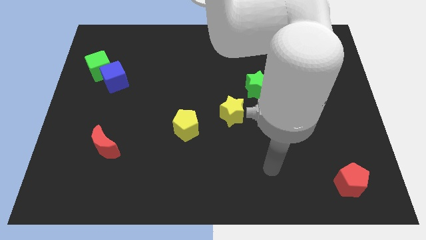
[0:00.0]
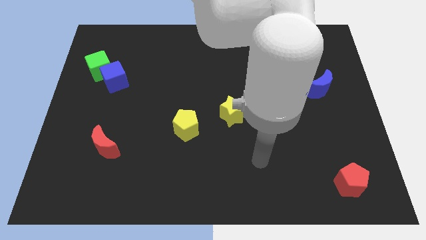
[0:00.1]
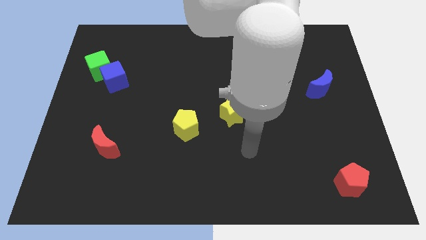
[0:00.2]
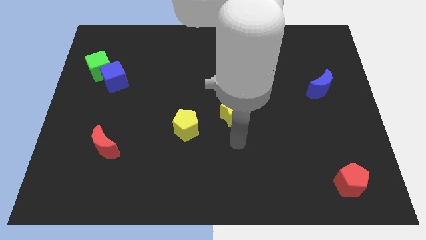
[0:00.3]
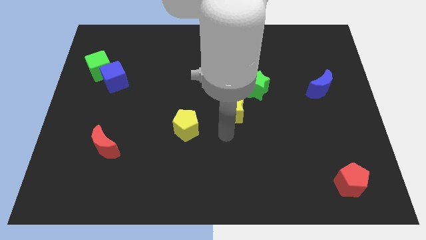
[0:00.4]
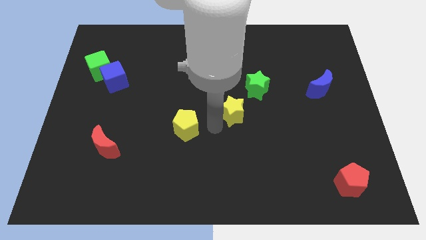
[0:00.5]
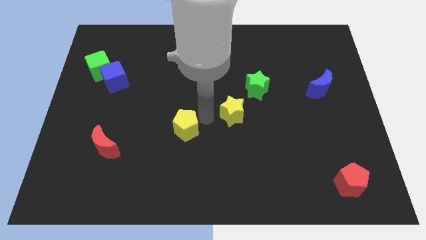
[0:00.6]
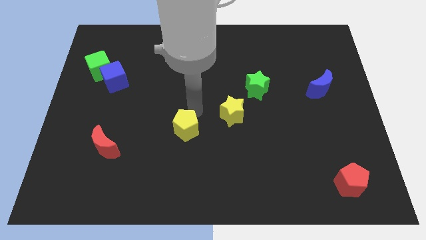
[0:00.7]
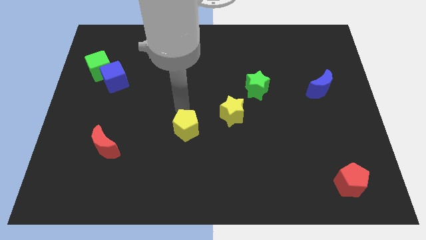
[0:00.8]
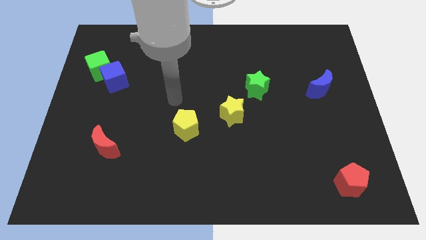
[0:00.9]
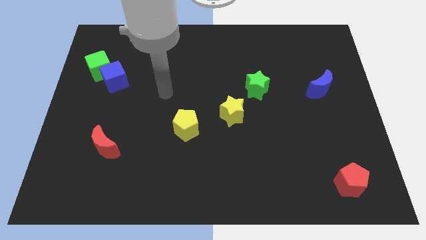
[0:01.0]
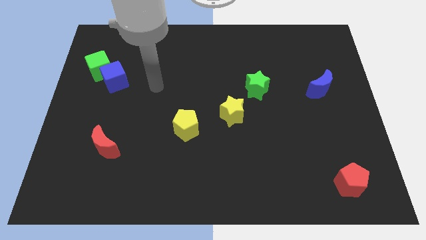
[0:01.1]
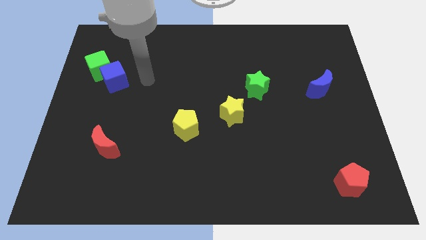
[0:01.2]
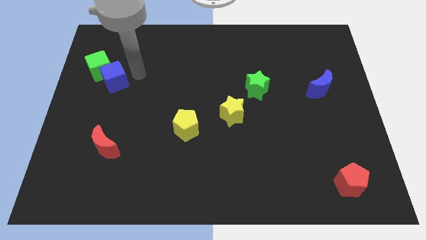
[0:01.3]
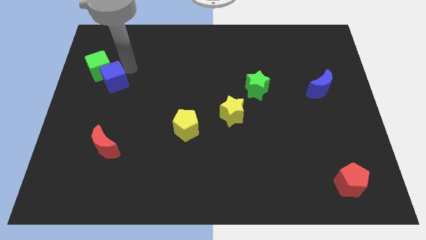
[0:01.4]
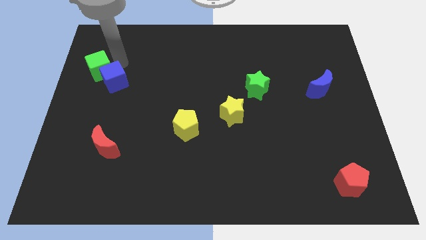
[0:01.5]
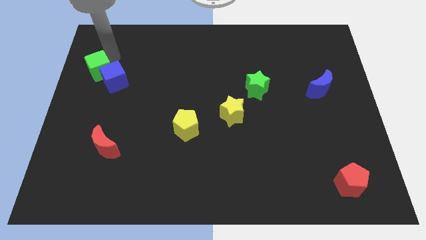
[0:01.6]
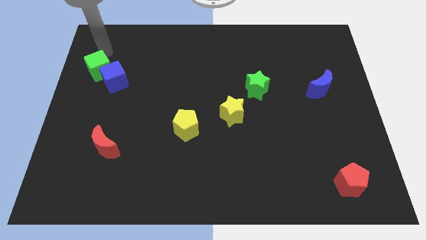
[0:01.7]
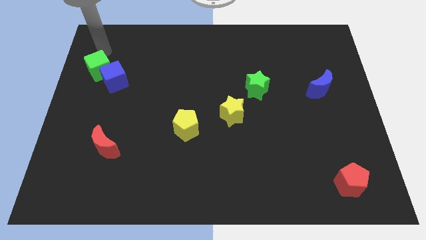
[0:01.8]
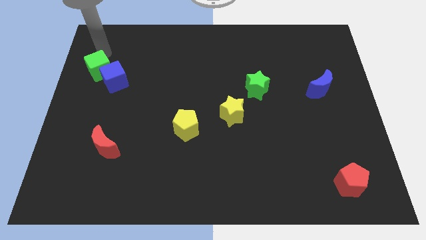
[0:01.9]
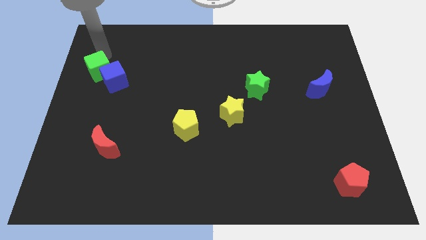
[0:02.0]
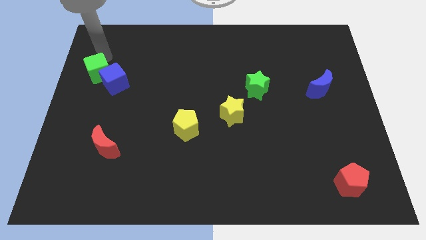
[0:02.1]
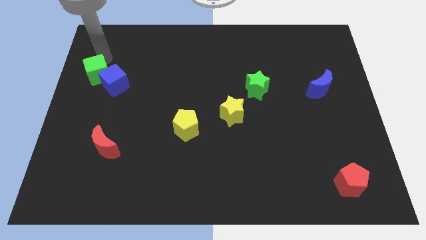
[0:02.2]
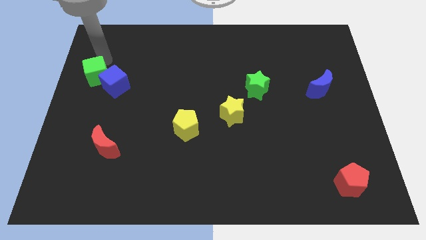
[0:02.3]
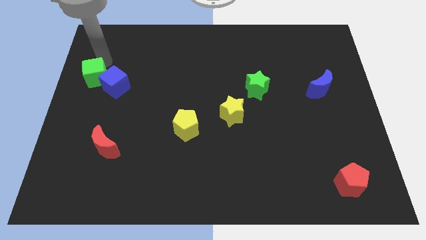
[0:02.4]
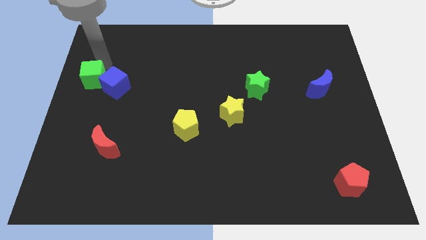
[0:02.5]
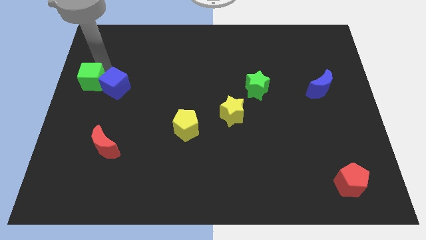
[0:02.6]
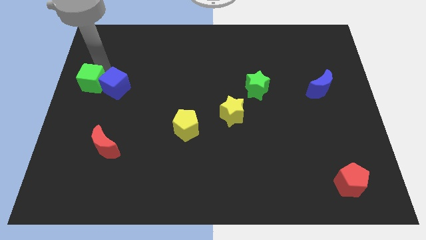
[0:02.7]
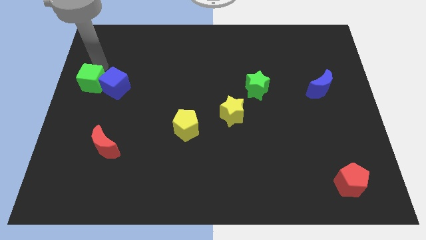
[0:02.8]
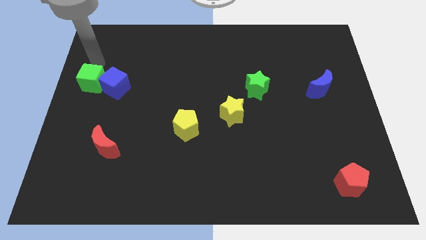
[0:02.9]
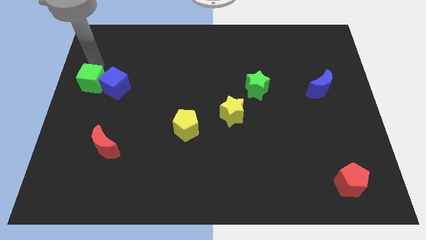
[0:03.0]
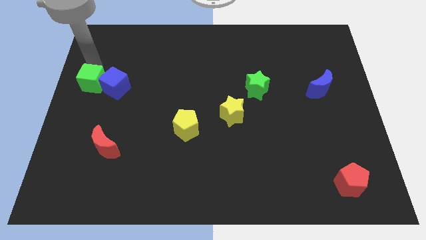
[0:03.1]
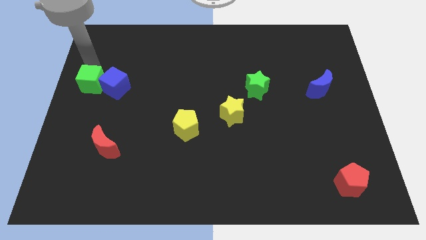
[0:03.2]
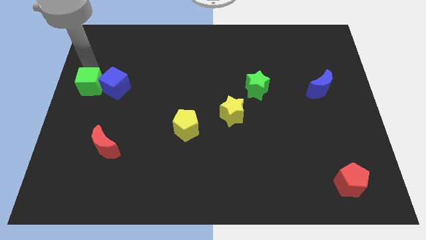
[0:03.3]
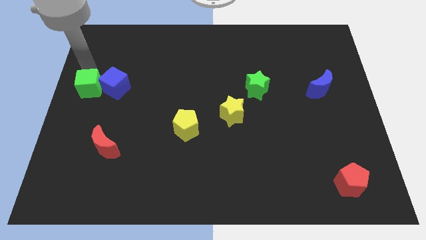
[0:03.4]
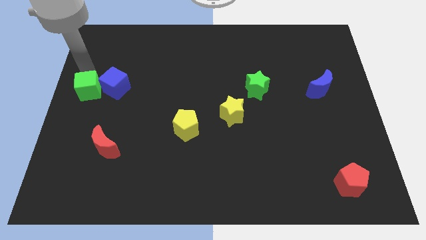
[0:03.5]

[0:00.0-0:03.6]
slide the green cube slightly downwards

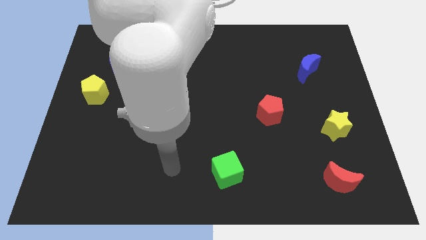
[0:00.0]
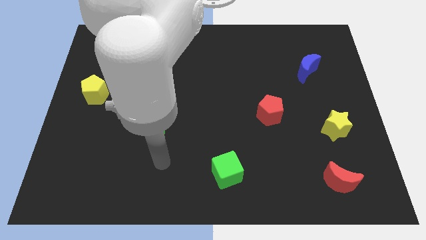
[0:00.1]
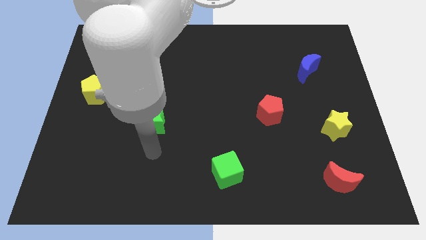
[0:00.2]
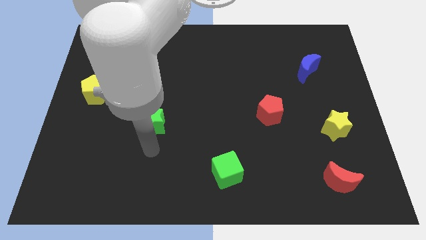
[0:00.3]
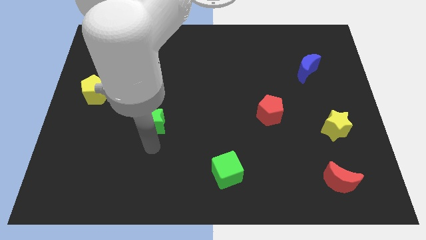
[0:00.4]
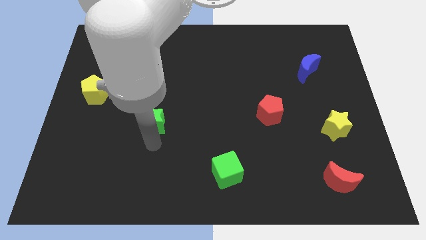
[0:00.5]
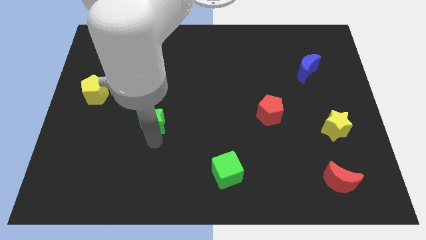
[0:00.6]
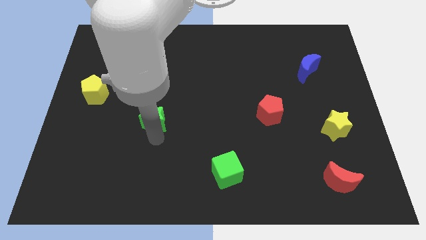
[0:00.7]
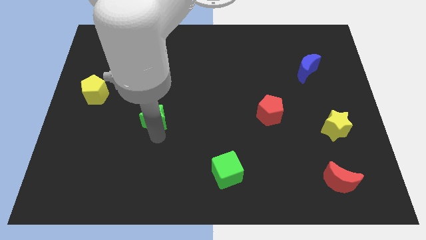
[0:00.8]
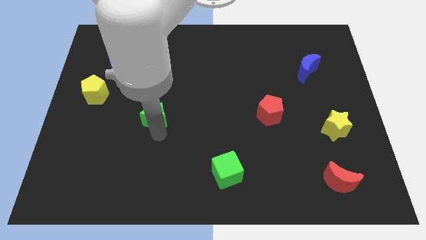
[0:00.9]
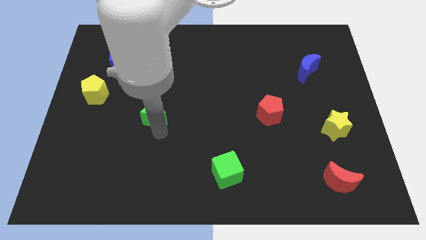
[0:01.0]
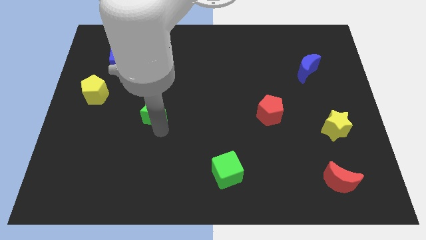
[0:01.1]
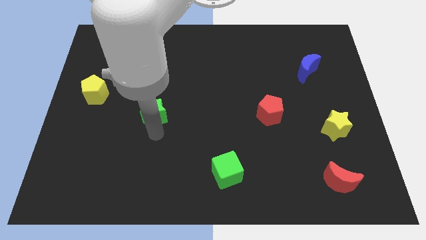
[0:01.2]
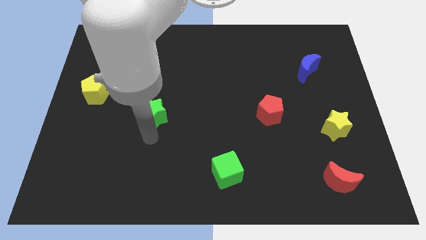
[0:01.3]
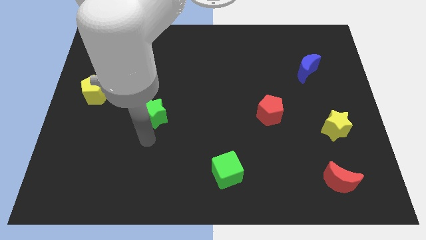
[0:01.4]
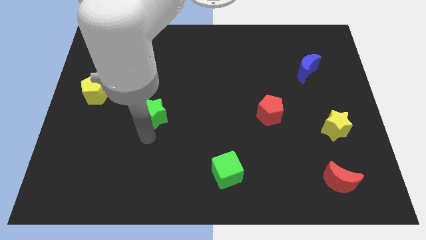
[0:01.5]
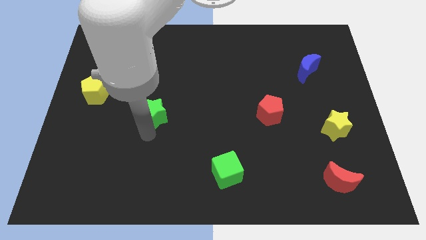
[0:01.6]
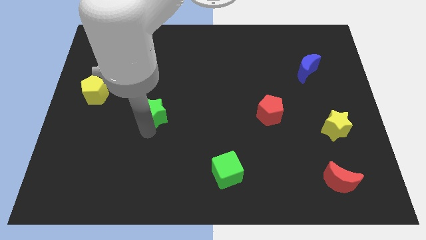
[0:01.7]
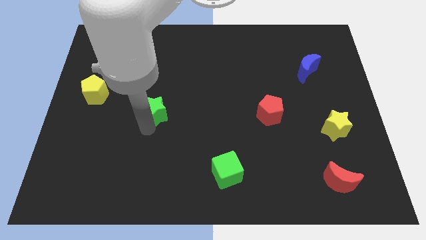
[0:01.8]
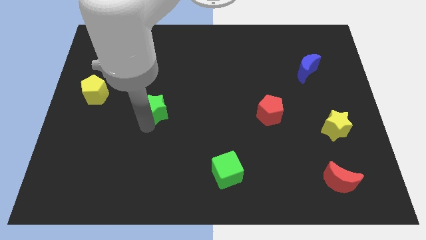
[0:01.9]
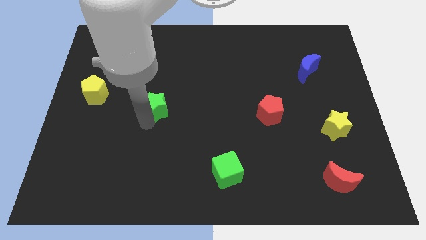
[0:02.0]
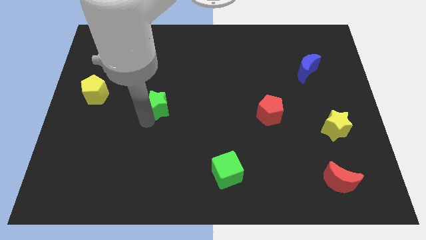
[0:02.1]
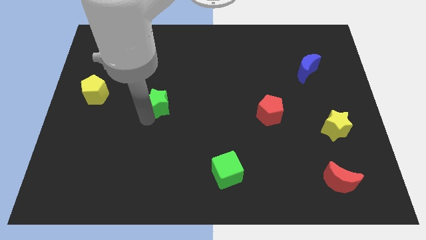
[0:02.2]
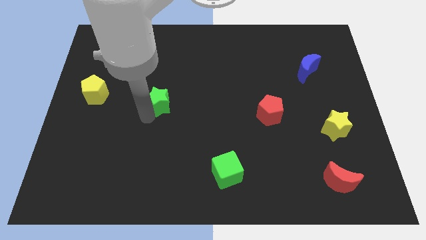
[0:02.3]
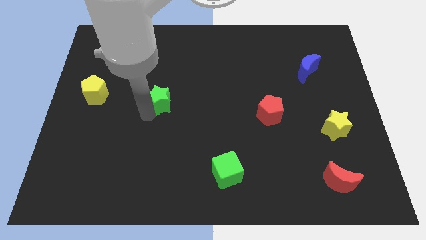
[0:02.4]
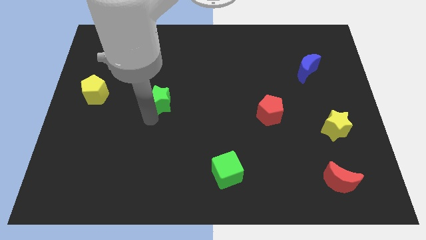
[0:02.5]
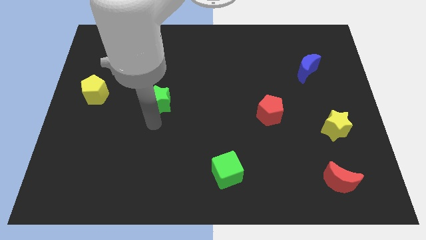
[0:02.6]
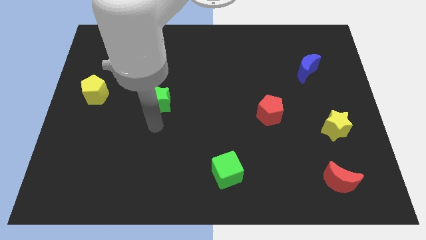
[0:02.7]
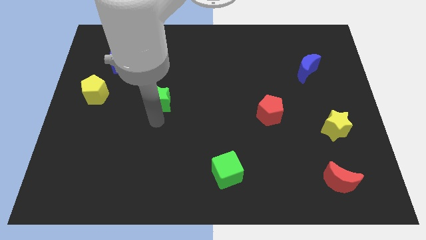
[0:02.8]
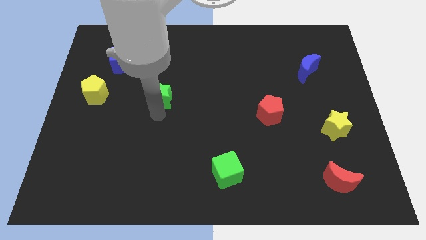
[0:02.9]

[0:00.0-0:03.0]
slide the green star slightly upwards

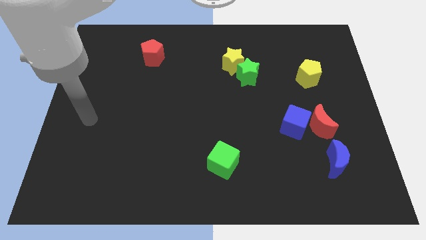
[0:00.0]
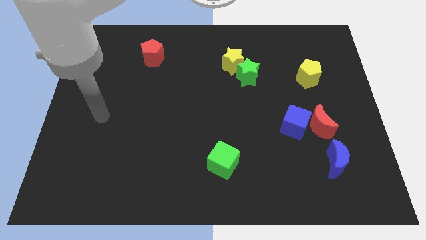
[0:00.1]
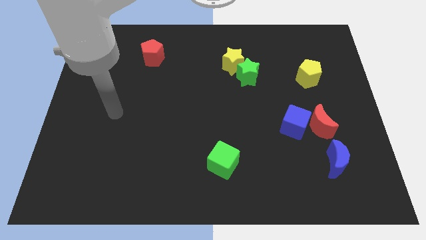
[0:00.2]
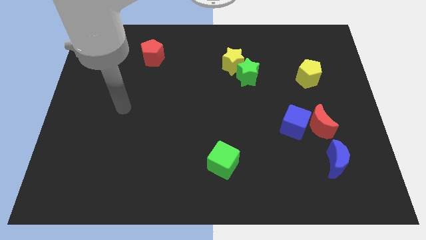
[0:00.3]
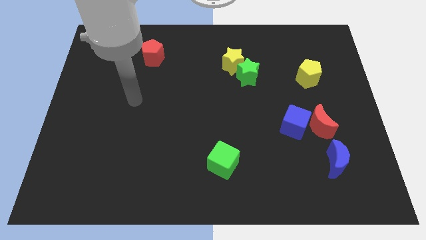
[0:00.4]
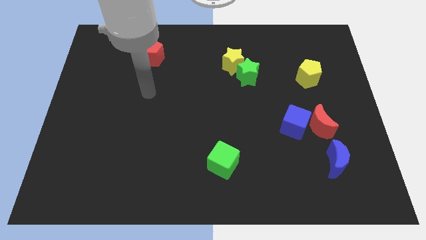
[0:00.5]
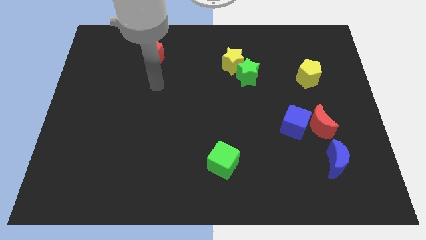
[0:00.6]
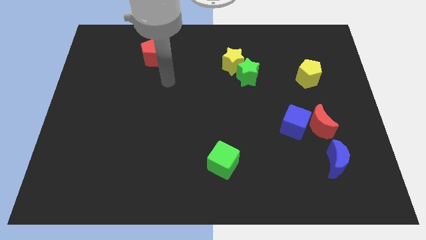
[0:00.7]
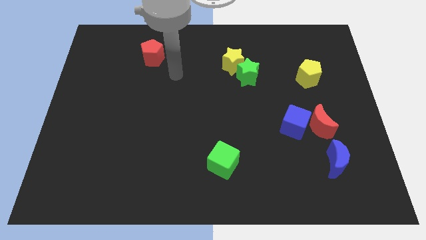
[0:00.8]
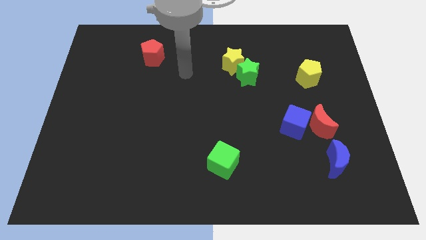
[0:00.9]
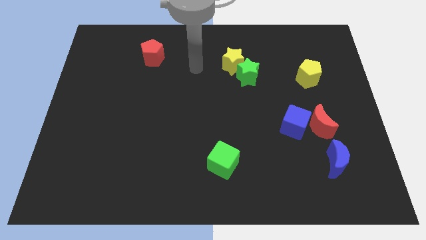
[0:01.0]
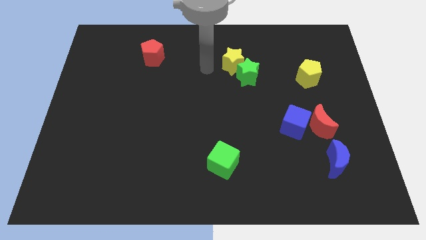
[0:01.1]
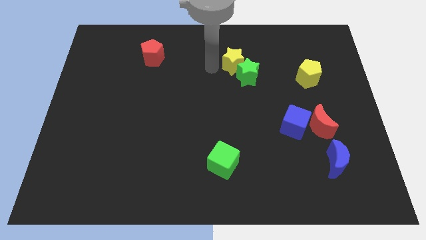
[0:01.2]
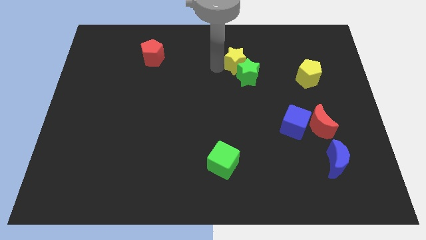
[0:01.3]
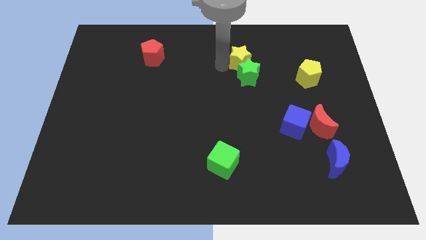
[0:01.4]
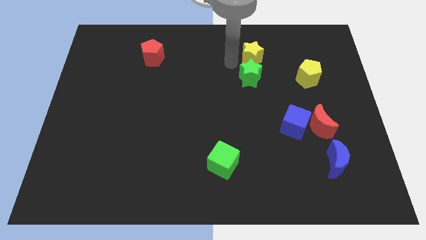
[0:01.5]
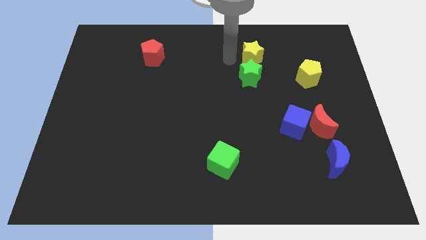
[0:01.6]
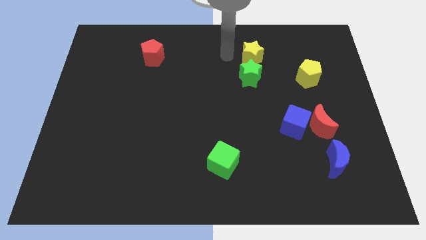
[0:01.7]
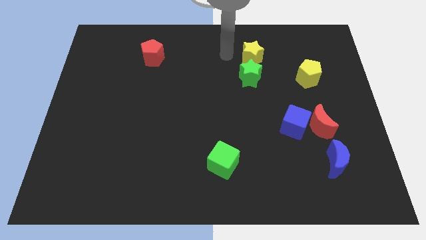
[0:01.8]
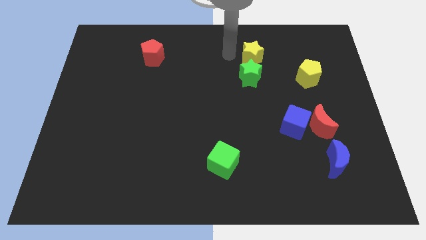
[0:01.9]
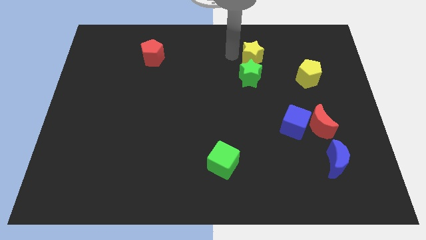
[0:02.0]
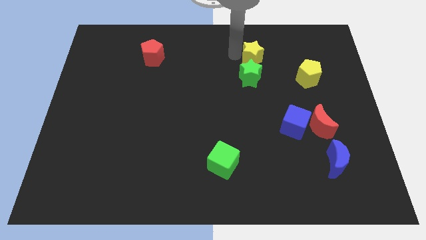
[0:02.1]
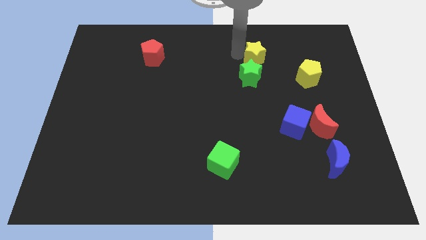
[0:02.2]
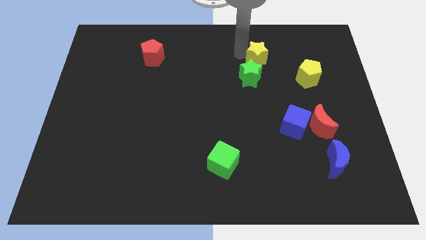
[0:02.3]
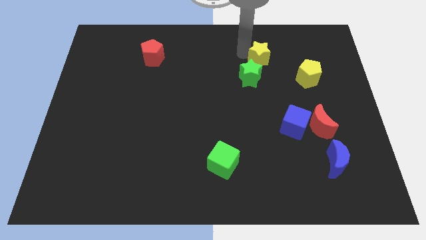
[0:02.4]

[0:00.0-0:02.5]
push the yellow star a bit right
